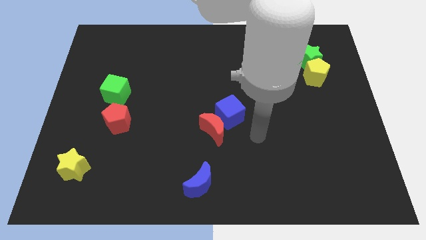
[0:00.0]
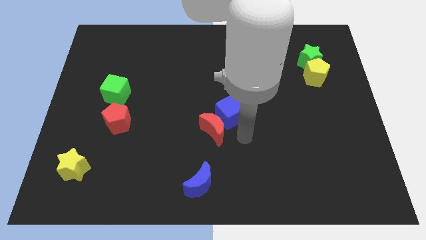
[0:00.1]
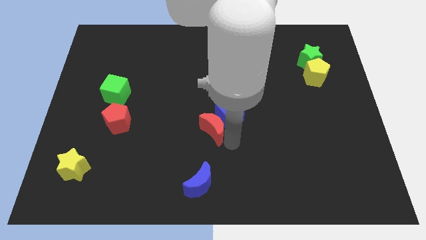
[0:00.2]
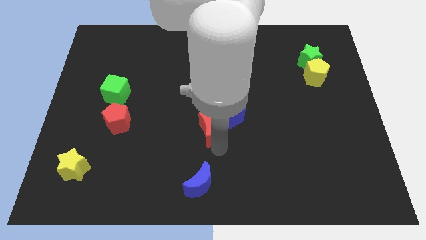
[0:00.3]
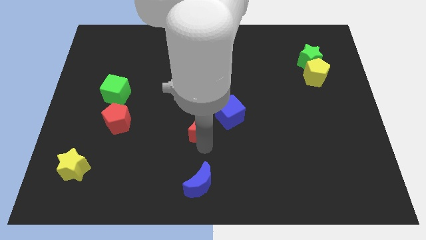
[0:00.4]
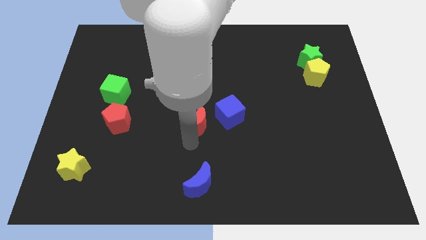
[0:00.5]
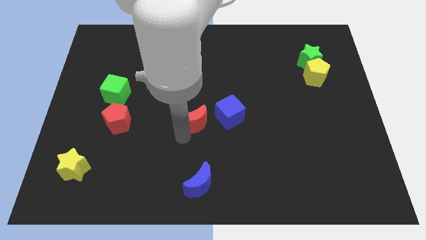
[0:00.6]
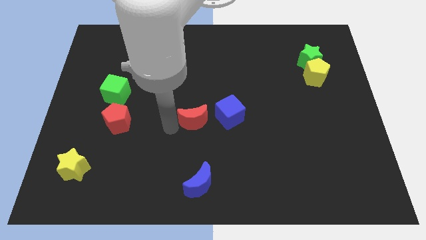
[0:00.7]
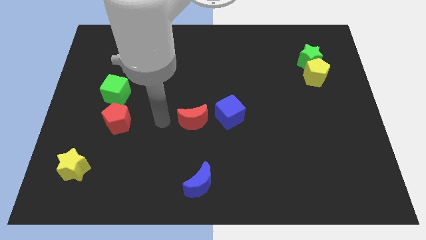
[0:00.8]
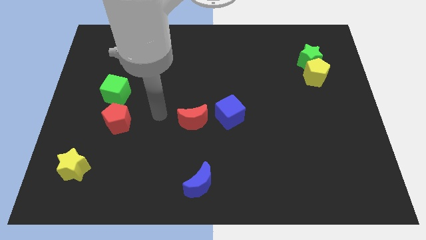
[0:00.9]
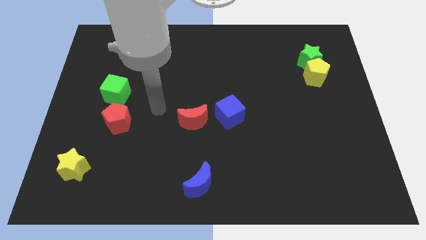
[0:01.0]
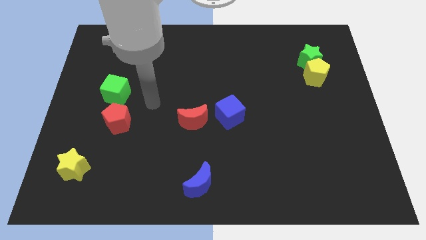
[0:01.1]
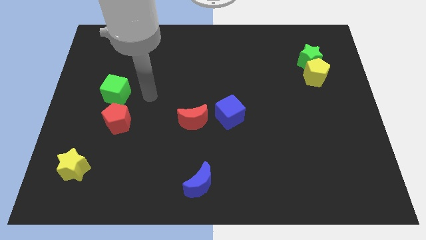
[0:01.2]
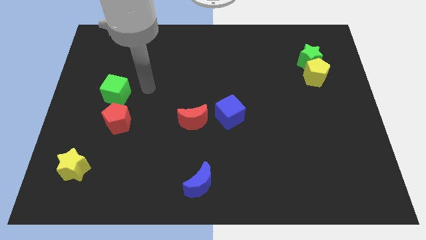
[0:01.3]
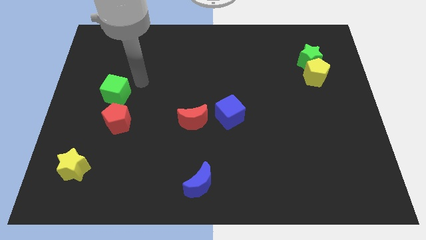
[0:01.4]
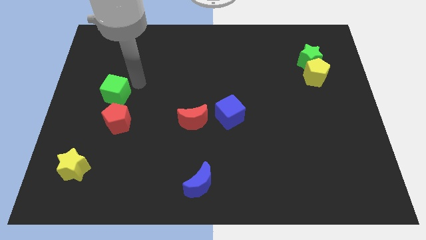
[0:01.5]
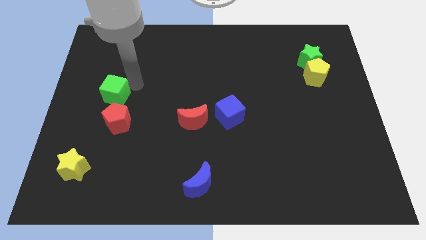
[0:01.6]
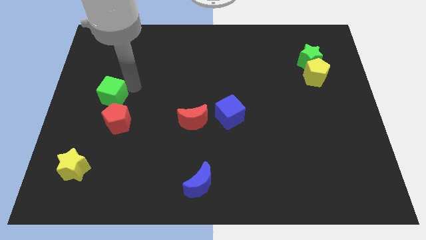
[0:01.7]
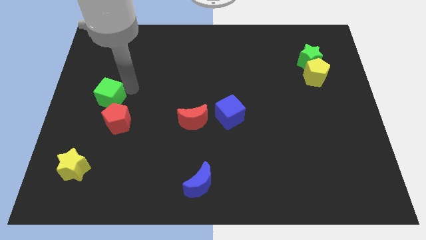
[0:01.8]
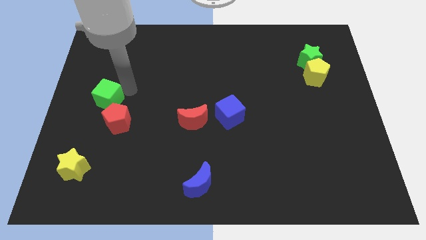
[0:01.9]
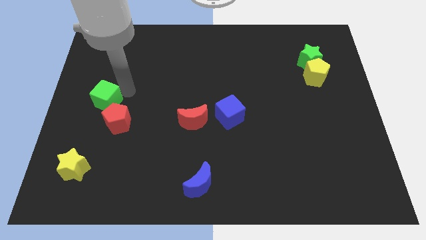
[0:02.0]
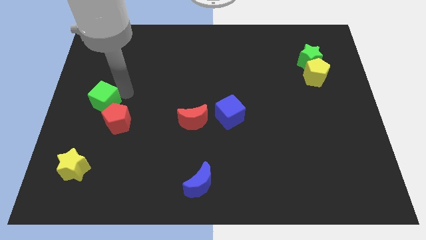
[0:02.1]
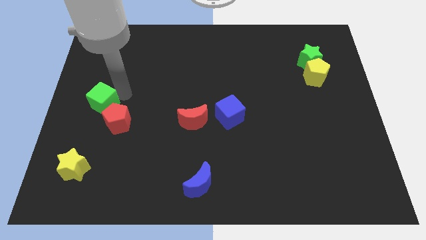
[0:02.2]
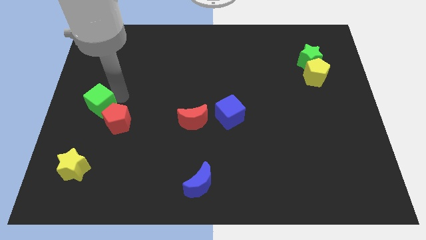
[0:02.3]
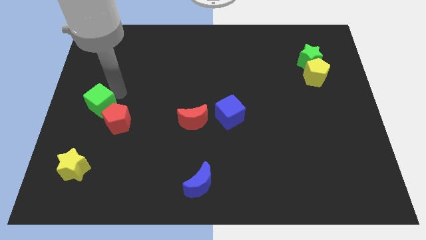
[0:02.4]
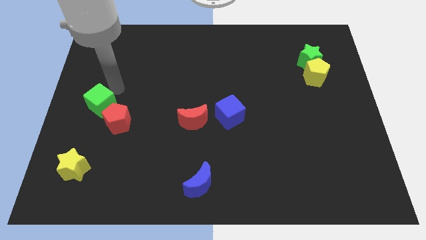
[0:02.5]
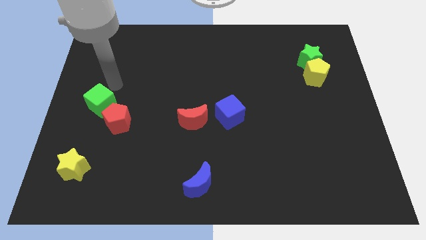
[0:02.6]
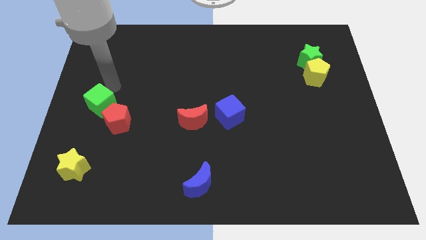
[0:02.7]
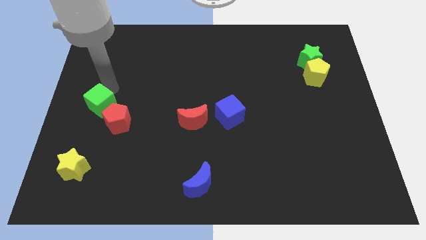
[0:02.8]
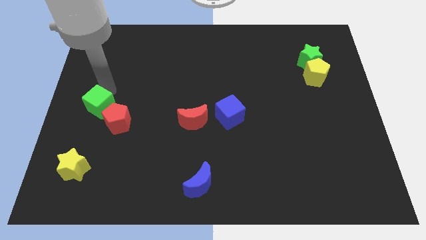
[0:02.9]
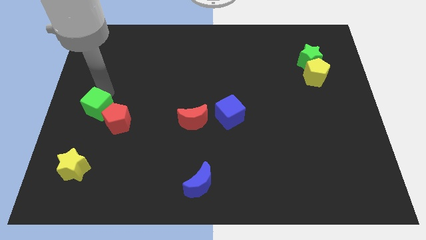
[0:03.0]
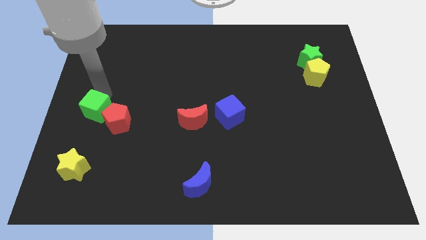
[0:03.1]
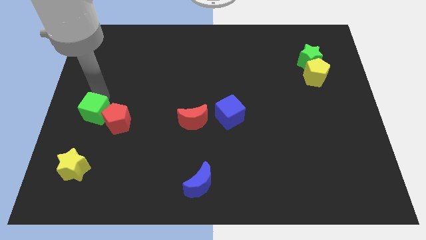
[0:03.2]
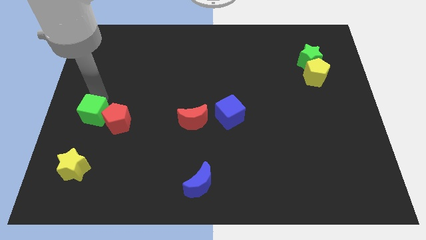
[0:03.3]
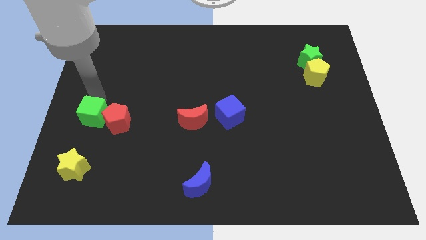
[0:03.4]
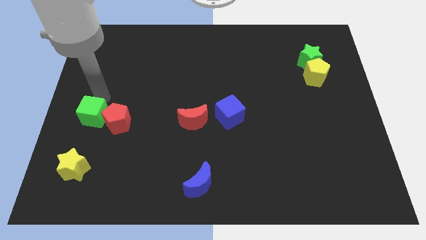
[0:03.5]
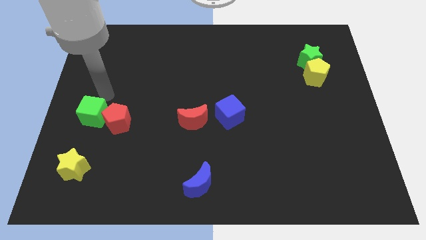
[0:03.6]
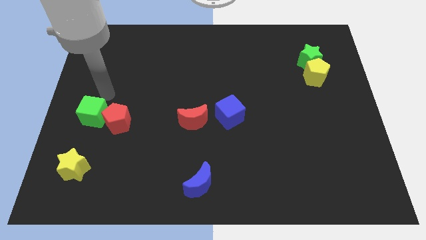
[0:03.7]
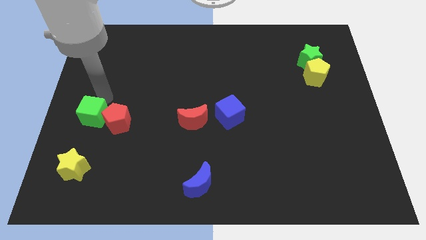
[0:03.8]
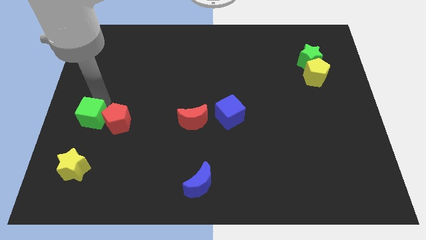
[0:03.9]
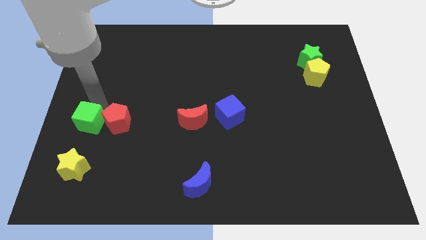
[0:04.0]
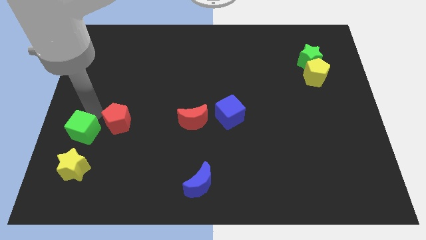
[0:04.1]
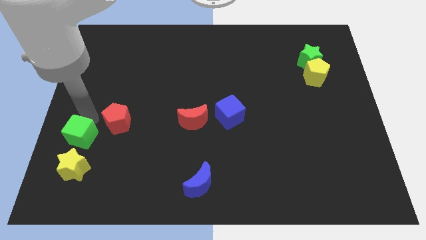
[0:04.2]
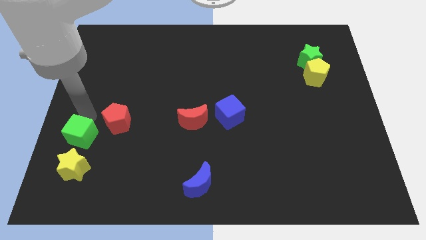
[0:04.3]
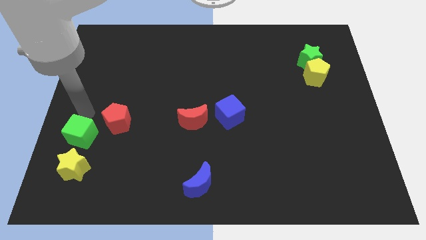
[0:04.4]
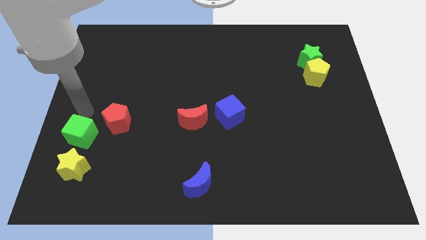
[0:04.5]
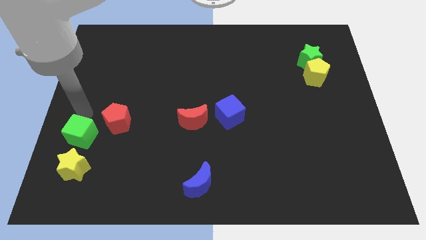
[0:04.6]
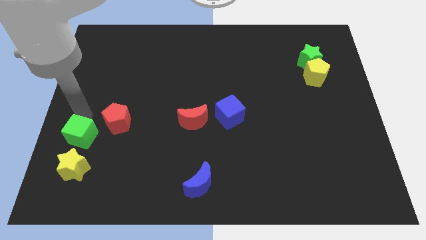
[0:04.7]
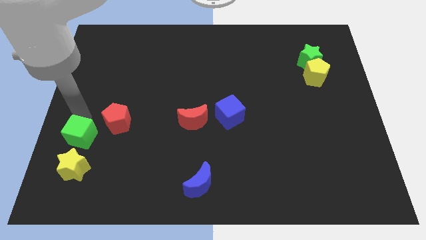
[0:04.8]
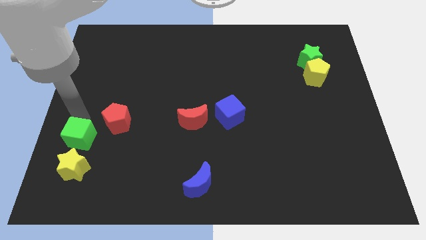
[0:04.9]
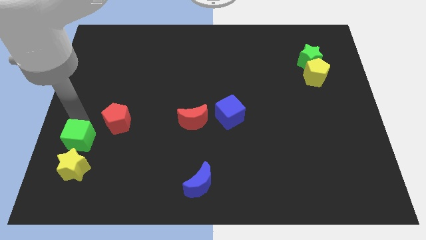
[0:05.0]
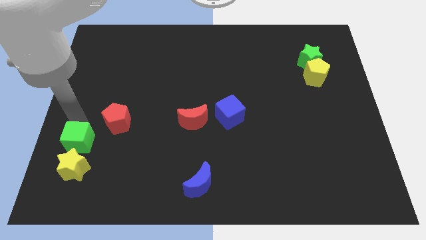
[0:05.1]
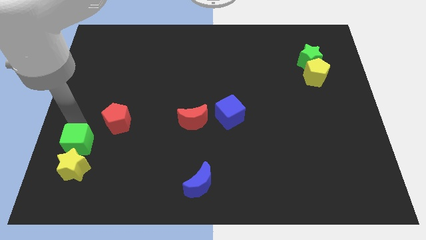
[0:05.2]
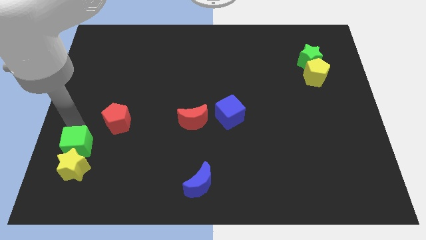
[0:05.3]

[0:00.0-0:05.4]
put the green cube towards the yellow star

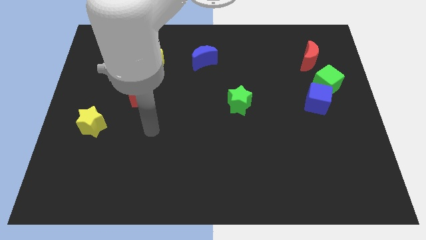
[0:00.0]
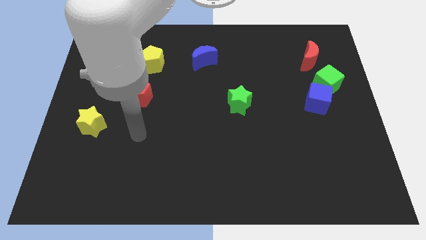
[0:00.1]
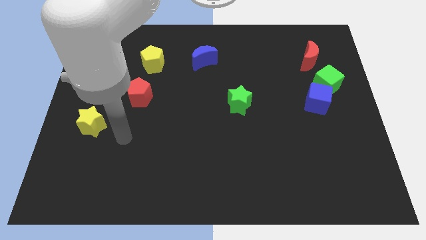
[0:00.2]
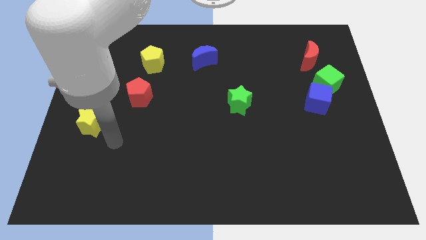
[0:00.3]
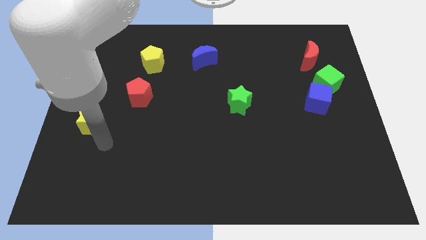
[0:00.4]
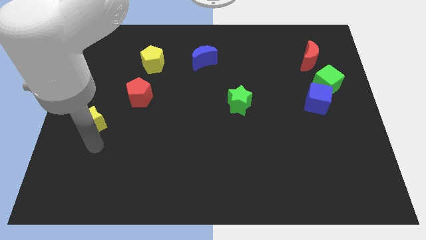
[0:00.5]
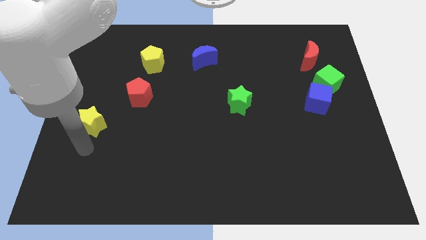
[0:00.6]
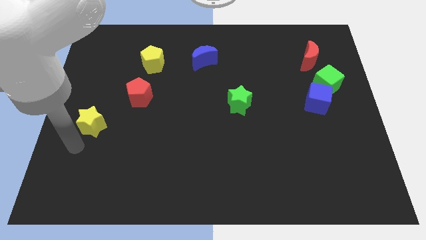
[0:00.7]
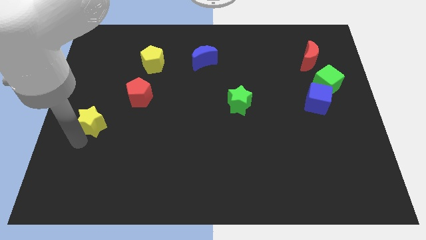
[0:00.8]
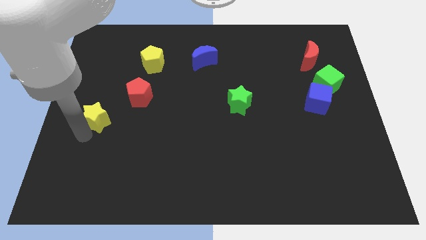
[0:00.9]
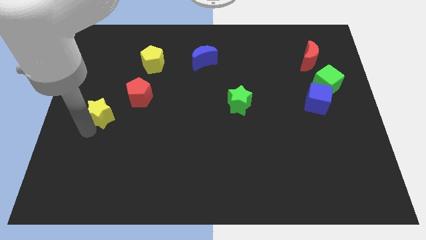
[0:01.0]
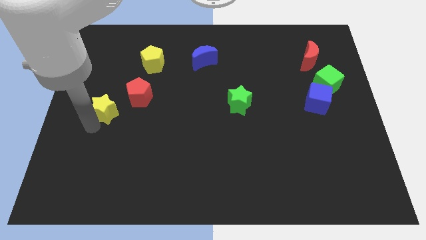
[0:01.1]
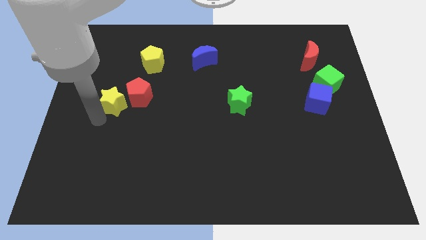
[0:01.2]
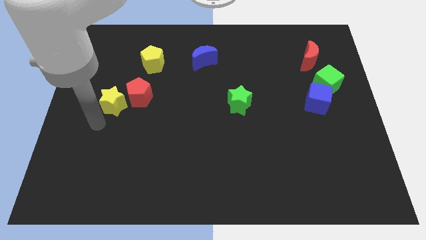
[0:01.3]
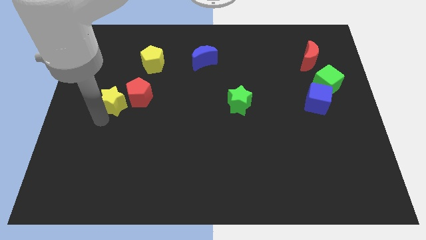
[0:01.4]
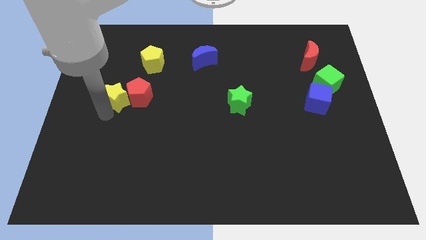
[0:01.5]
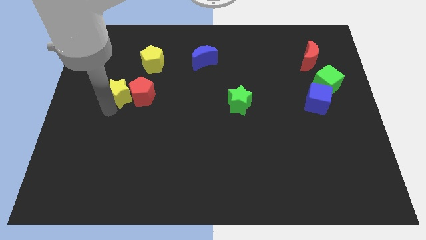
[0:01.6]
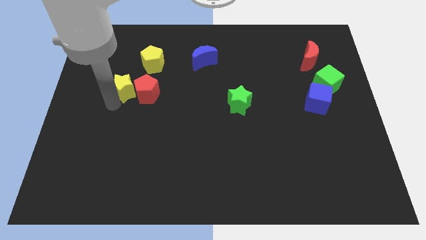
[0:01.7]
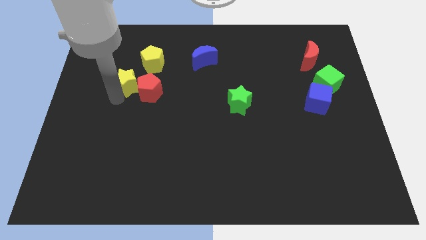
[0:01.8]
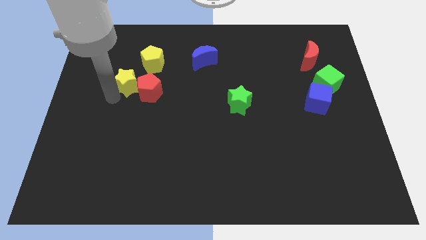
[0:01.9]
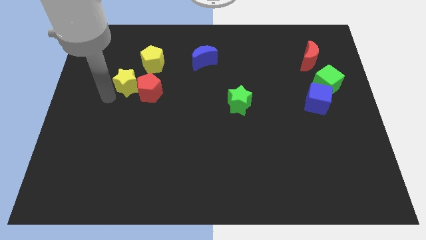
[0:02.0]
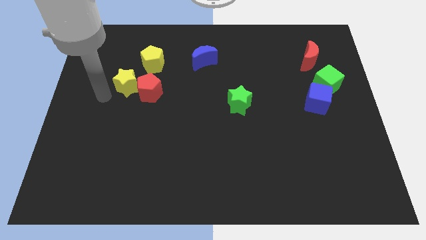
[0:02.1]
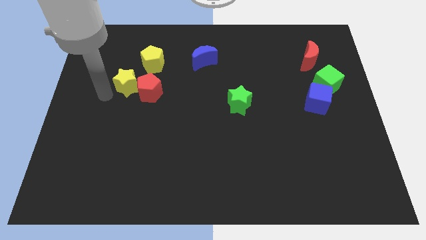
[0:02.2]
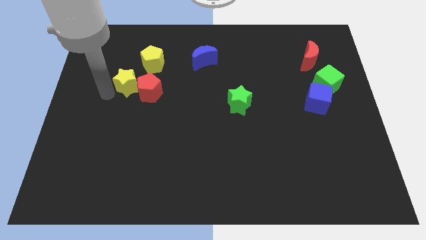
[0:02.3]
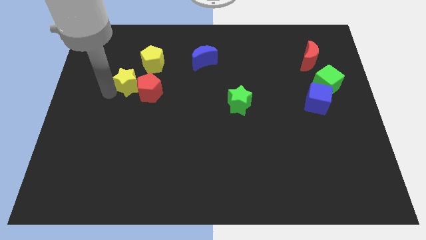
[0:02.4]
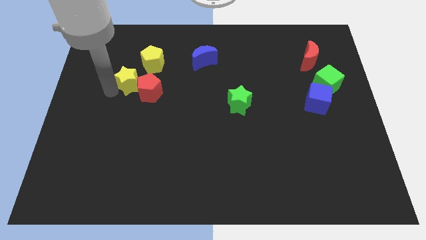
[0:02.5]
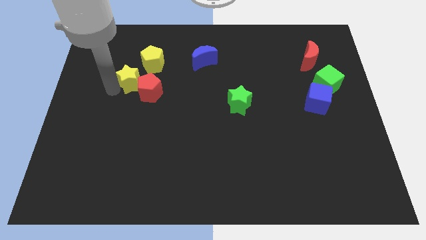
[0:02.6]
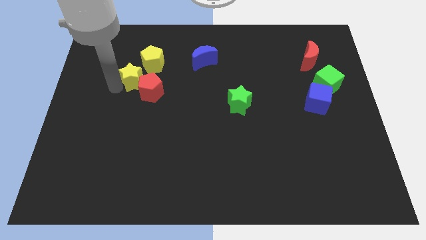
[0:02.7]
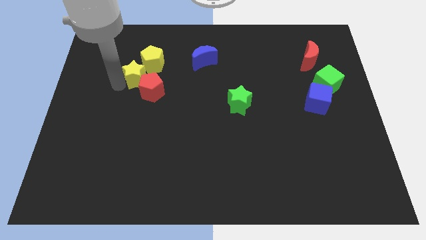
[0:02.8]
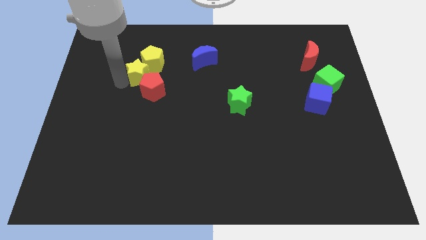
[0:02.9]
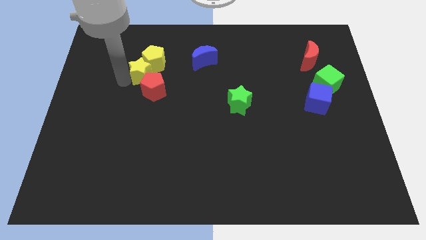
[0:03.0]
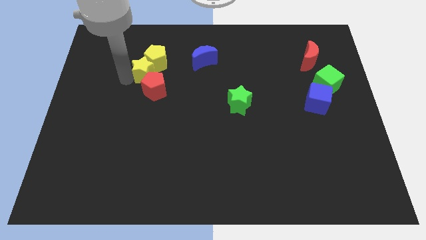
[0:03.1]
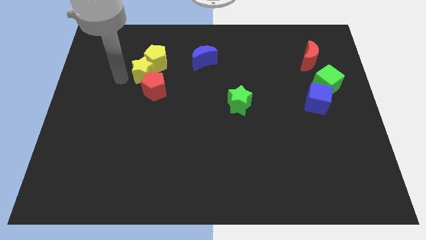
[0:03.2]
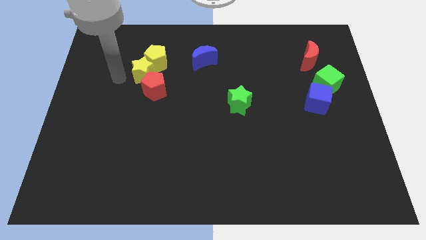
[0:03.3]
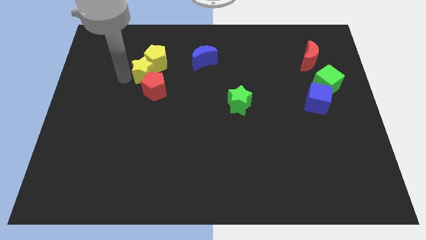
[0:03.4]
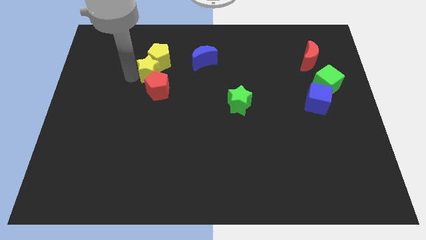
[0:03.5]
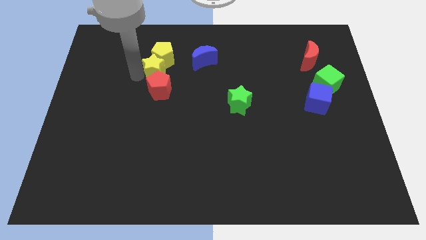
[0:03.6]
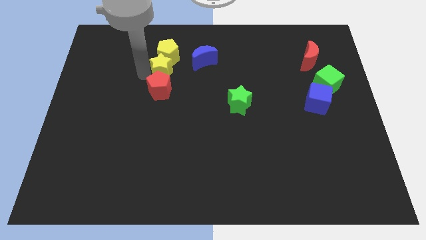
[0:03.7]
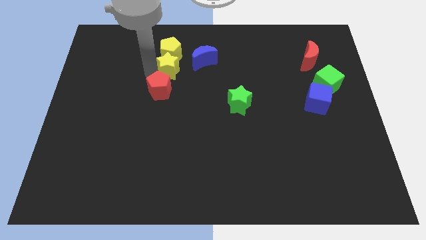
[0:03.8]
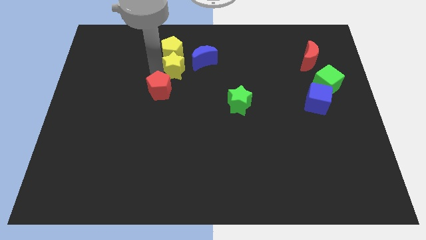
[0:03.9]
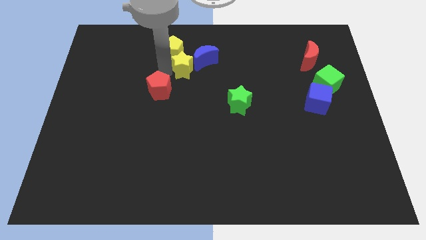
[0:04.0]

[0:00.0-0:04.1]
put the yellow star to the blue moon
